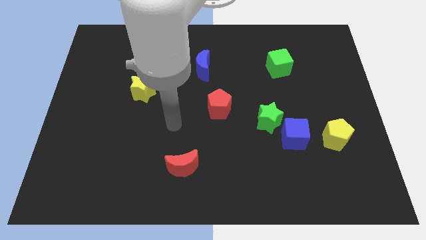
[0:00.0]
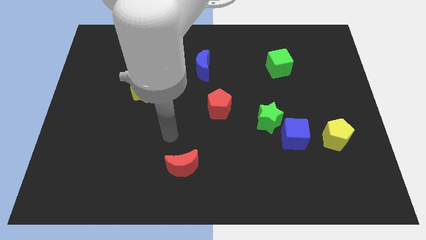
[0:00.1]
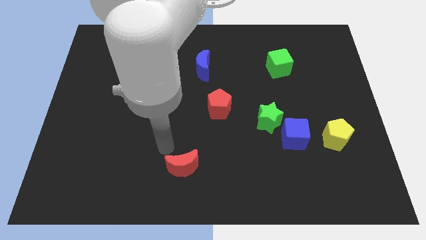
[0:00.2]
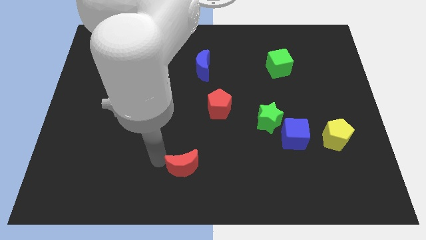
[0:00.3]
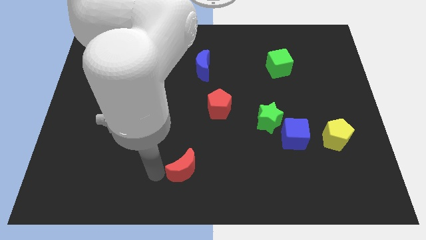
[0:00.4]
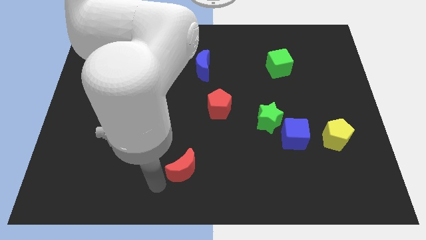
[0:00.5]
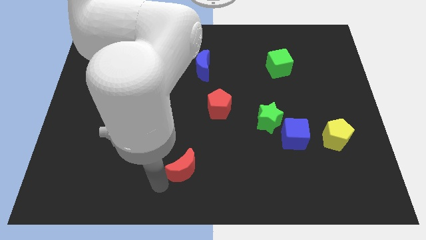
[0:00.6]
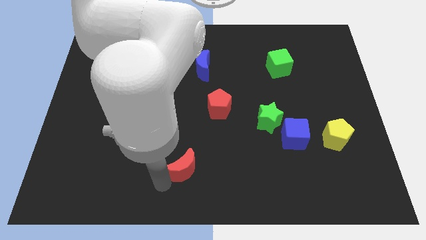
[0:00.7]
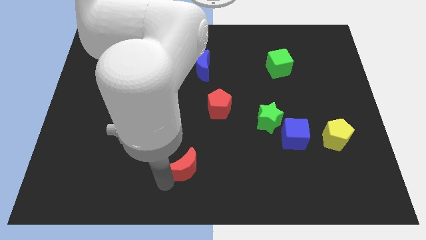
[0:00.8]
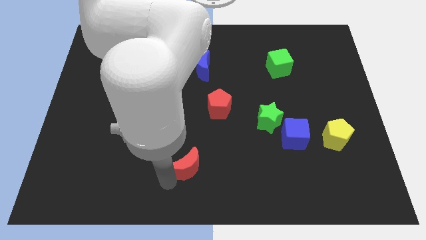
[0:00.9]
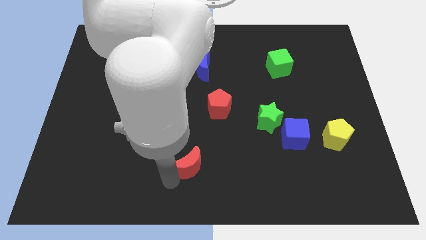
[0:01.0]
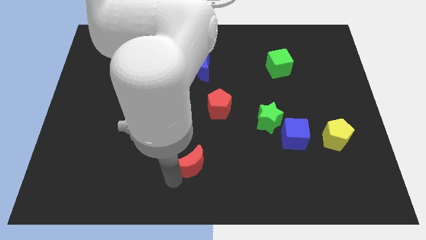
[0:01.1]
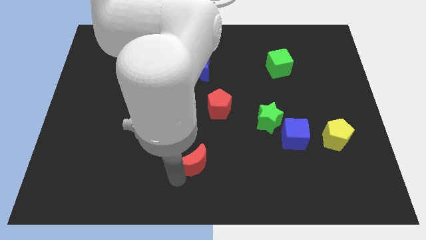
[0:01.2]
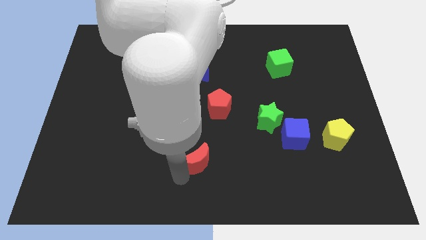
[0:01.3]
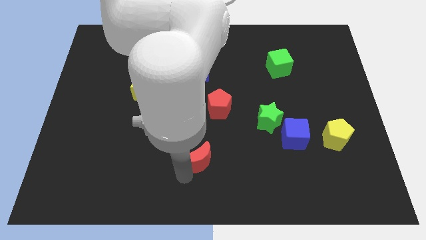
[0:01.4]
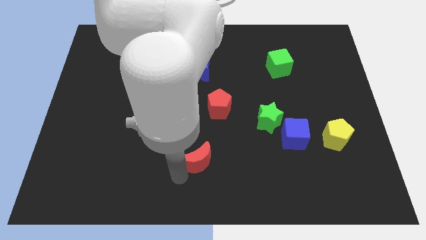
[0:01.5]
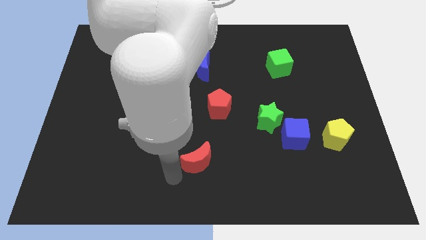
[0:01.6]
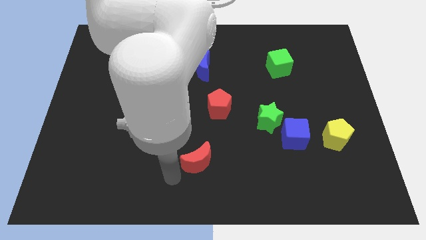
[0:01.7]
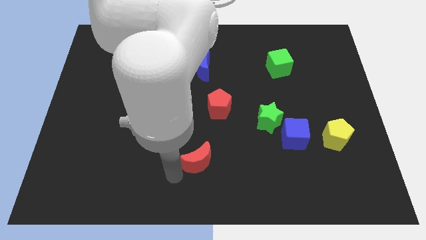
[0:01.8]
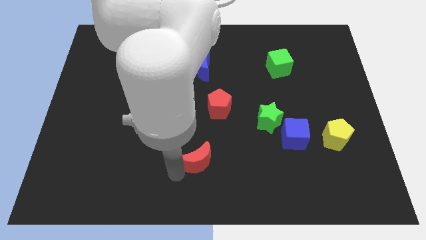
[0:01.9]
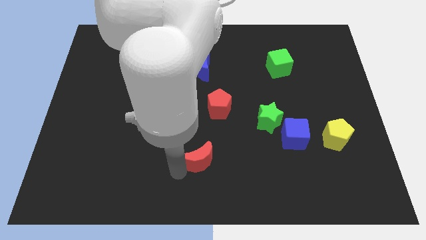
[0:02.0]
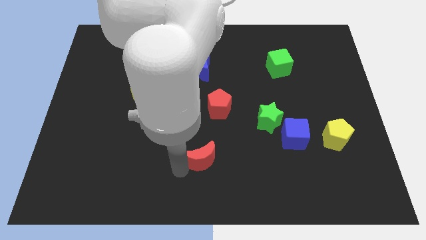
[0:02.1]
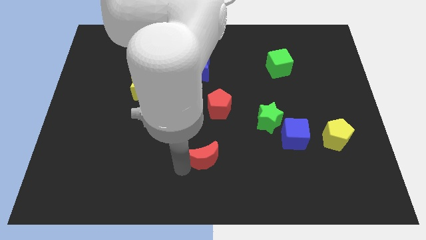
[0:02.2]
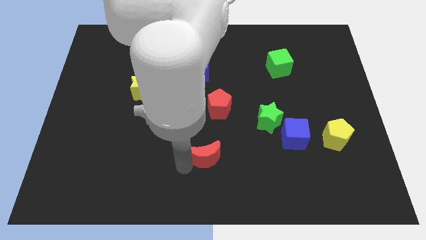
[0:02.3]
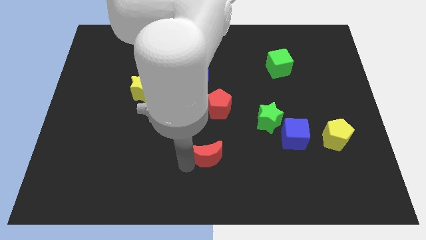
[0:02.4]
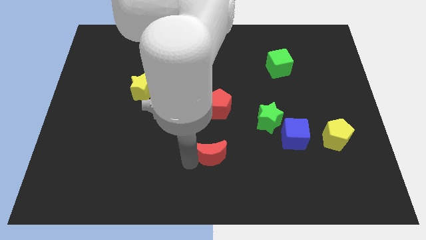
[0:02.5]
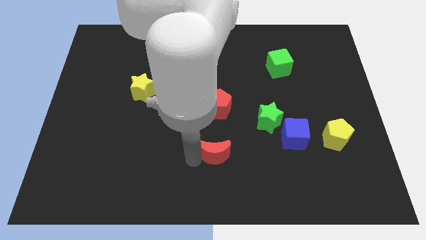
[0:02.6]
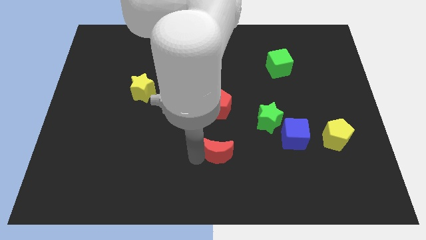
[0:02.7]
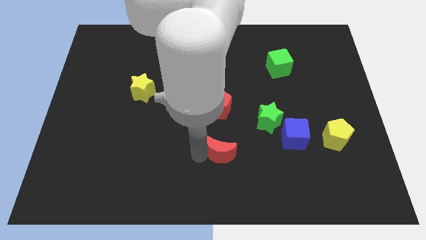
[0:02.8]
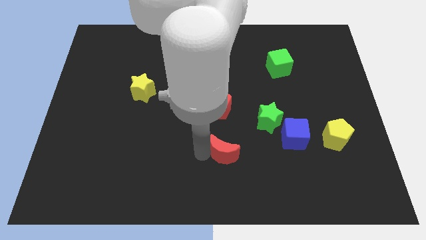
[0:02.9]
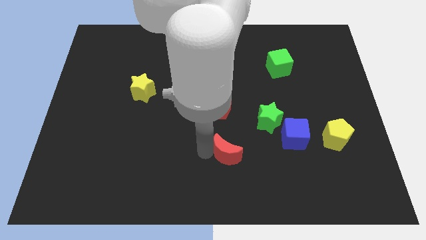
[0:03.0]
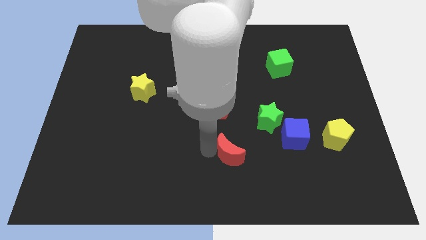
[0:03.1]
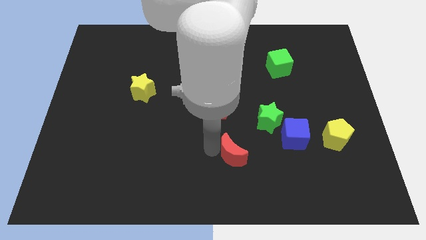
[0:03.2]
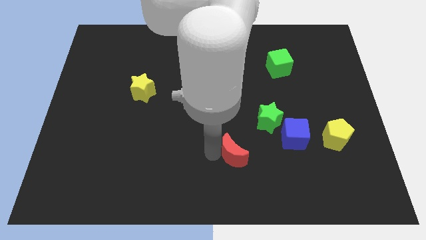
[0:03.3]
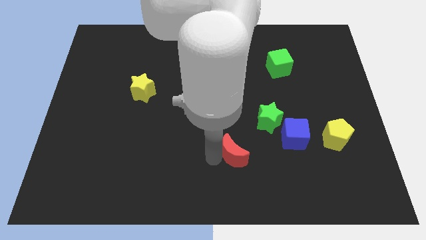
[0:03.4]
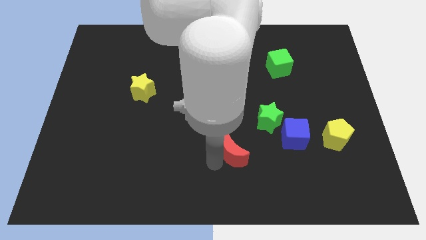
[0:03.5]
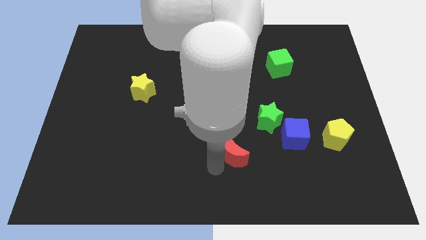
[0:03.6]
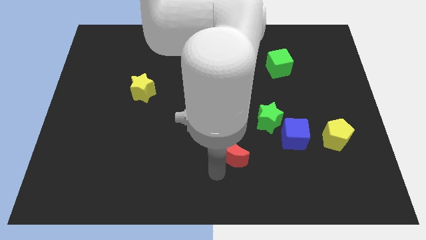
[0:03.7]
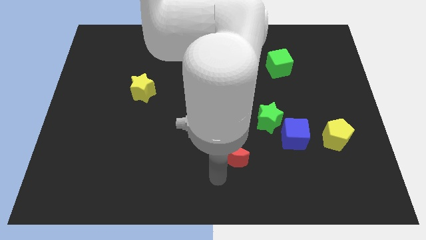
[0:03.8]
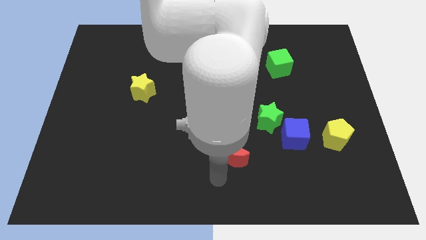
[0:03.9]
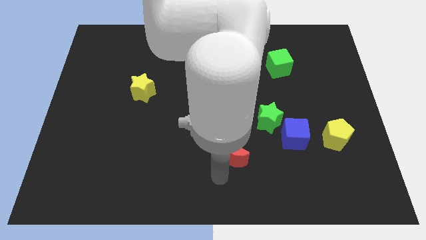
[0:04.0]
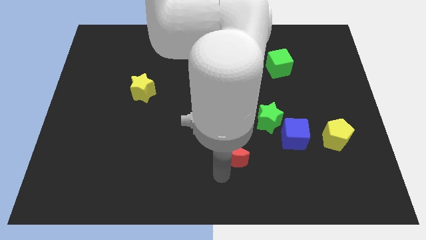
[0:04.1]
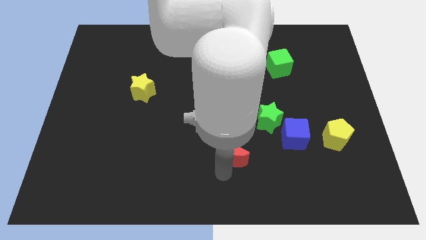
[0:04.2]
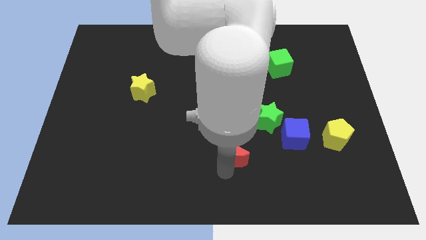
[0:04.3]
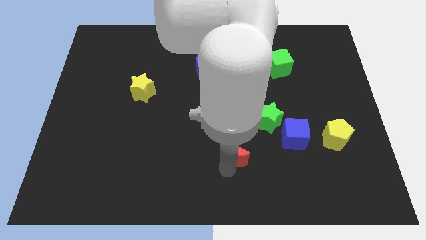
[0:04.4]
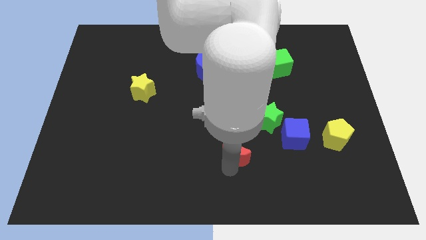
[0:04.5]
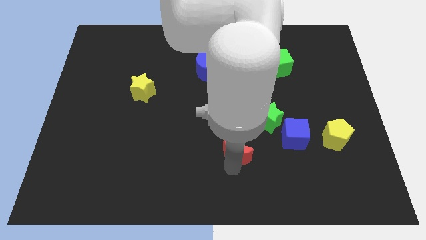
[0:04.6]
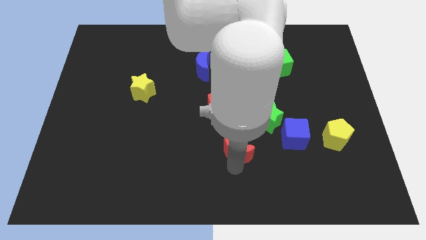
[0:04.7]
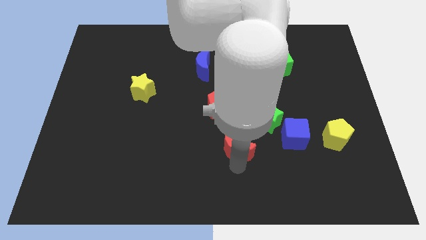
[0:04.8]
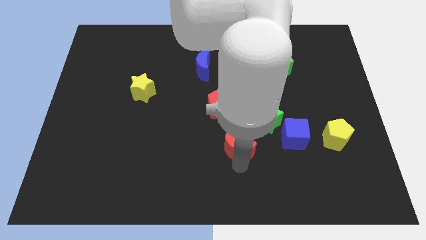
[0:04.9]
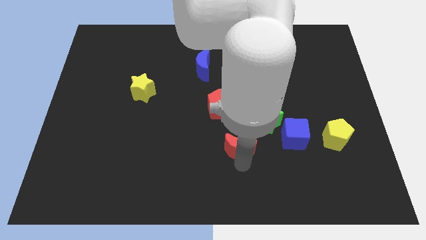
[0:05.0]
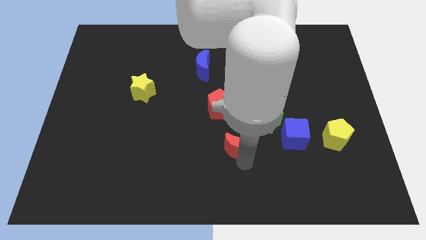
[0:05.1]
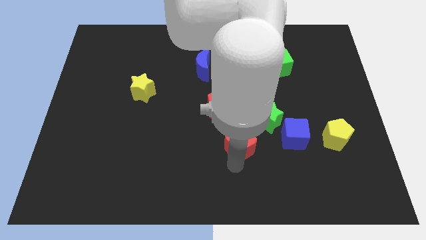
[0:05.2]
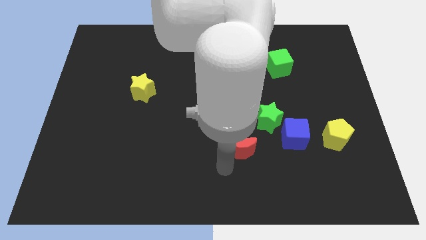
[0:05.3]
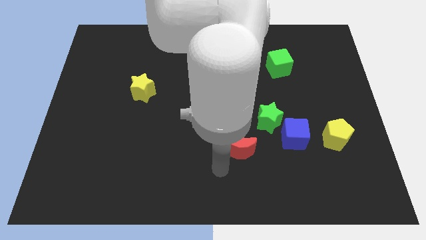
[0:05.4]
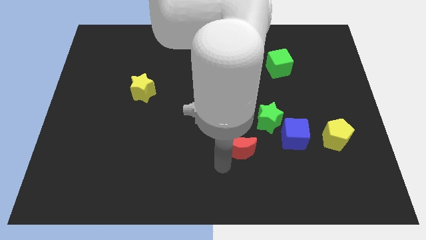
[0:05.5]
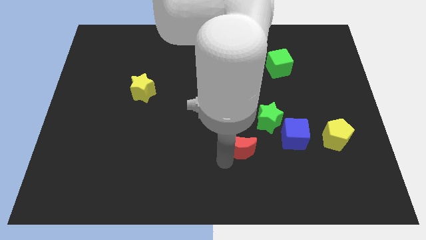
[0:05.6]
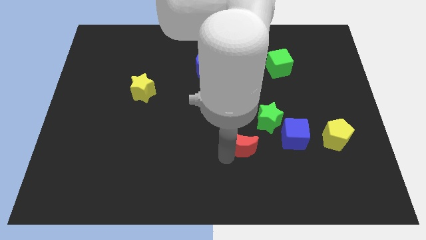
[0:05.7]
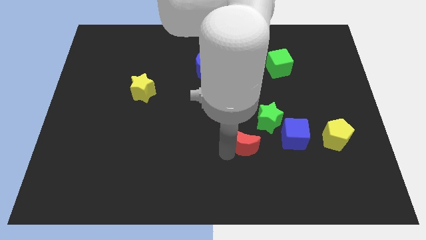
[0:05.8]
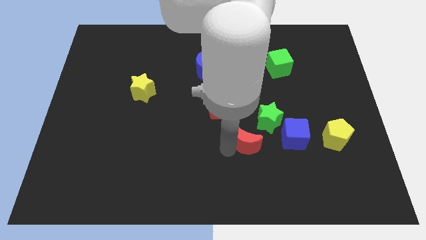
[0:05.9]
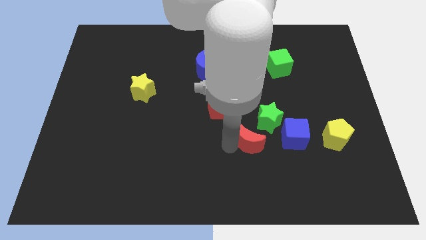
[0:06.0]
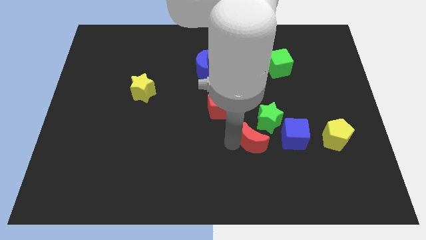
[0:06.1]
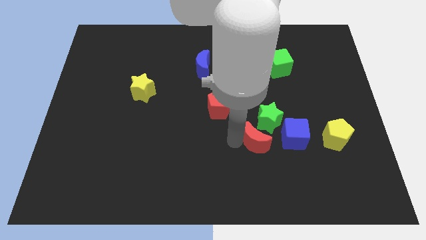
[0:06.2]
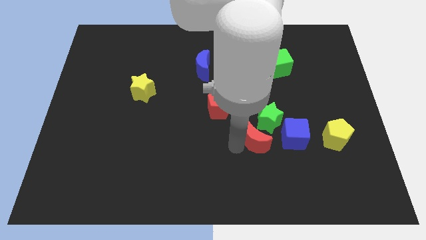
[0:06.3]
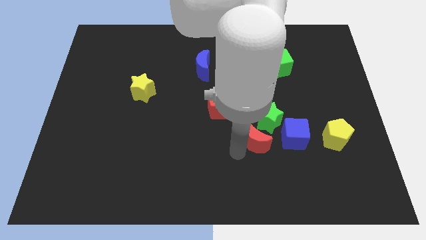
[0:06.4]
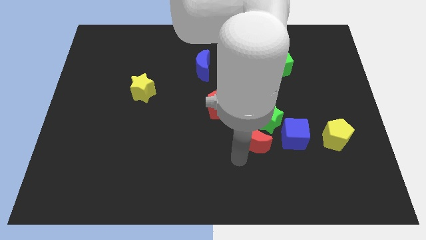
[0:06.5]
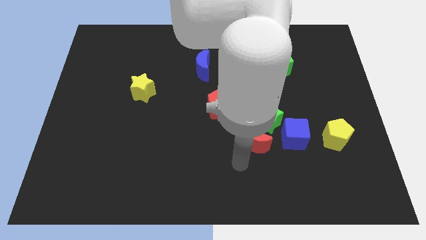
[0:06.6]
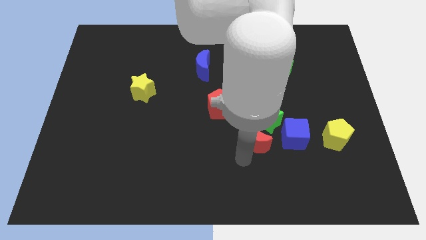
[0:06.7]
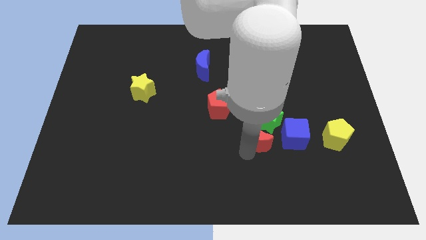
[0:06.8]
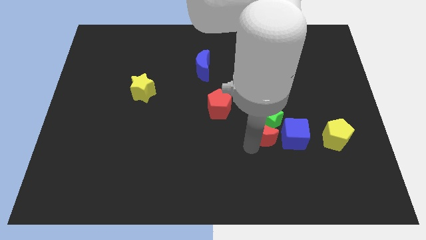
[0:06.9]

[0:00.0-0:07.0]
put the red moon towards the green star
